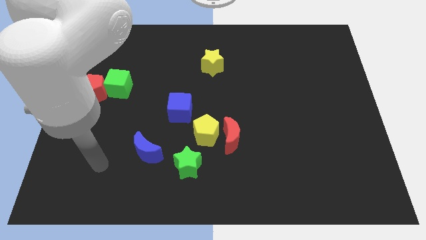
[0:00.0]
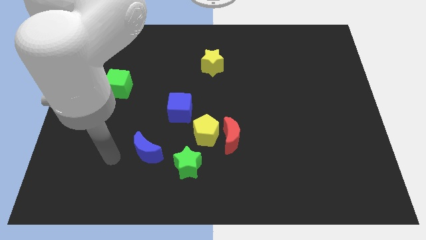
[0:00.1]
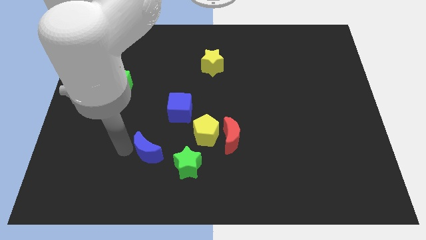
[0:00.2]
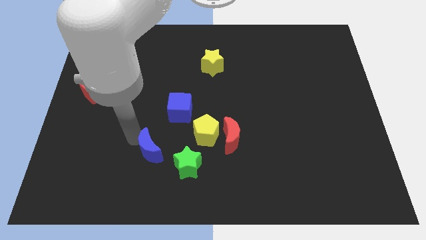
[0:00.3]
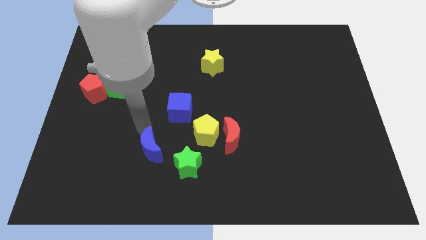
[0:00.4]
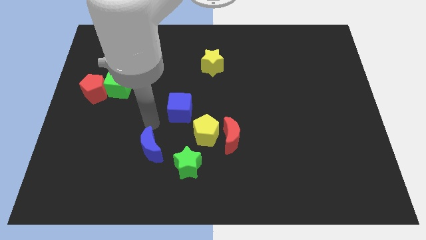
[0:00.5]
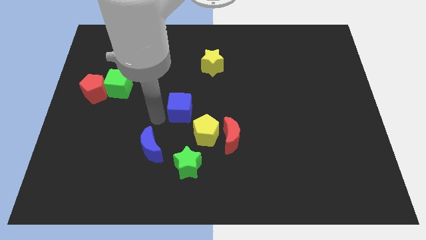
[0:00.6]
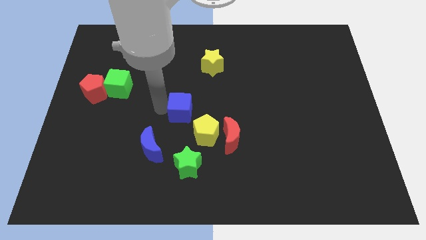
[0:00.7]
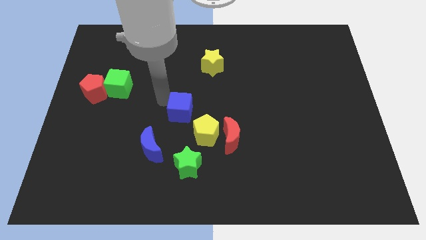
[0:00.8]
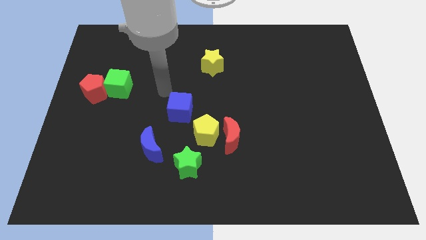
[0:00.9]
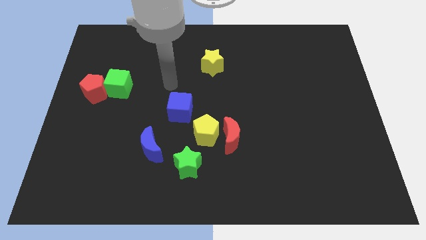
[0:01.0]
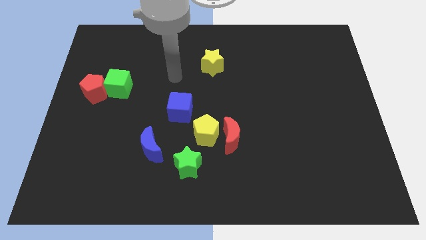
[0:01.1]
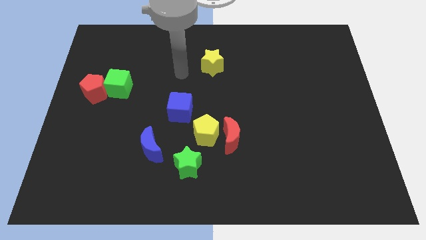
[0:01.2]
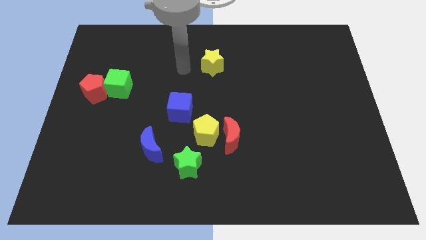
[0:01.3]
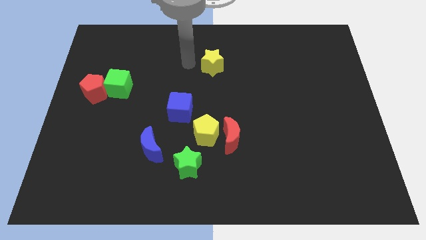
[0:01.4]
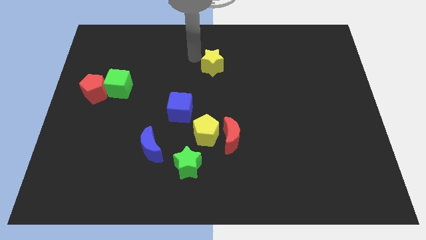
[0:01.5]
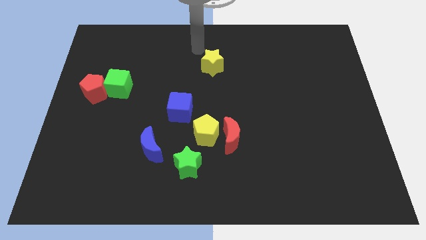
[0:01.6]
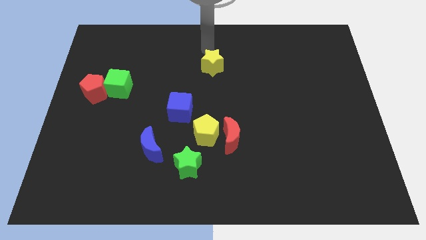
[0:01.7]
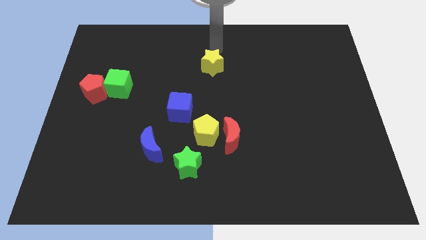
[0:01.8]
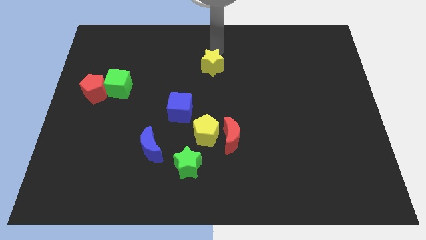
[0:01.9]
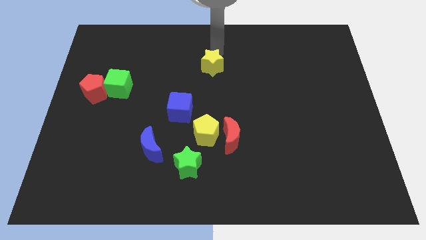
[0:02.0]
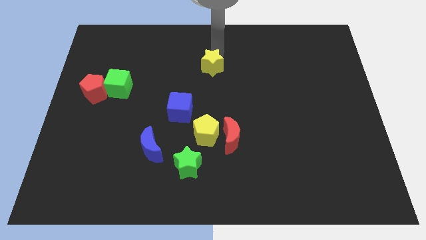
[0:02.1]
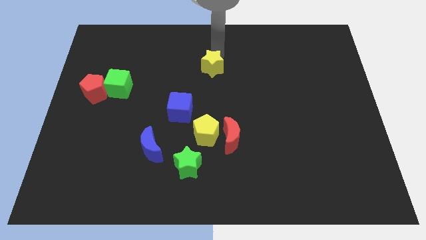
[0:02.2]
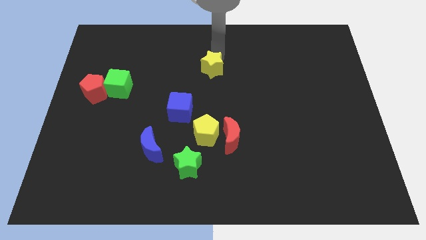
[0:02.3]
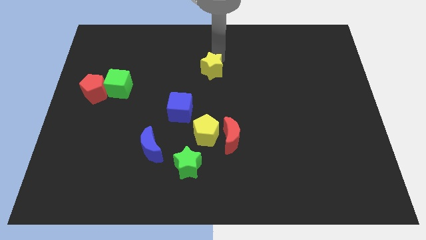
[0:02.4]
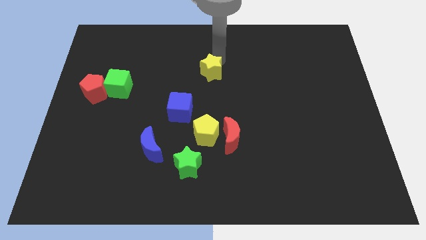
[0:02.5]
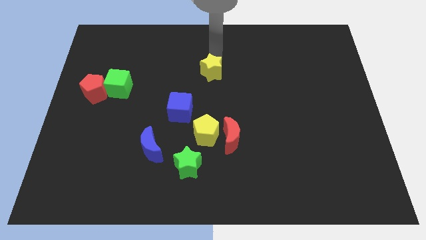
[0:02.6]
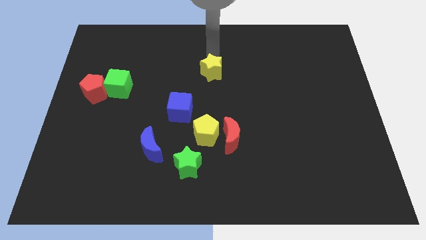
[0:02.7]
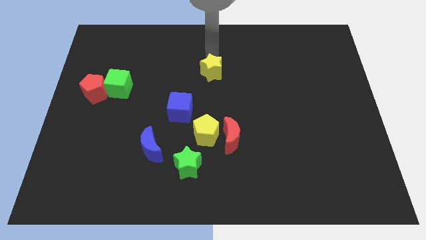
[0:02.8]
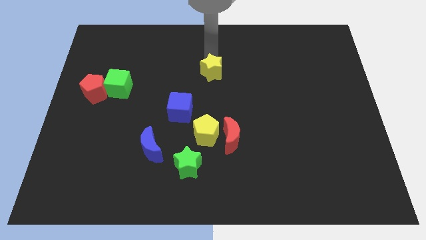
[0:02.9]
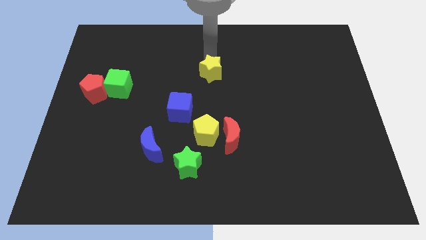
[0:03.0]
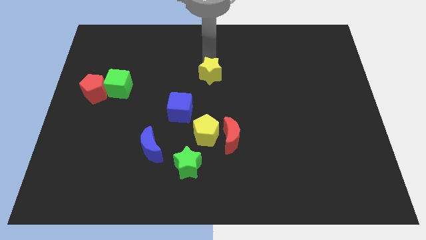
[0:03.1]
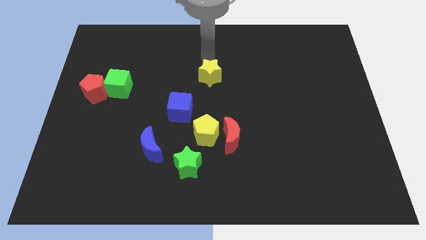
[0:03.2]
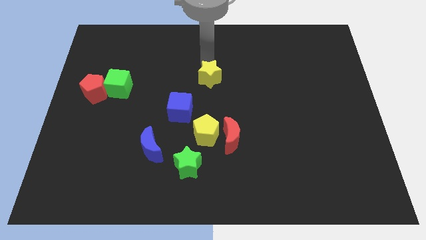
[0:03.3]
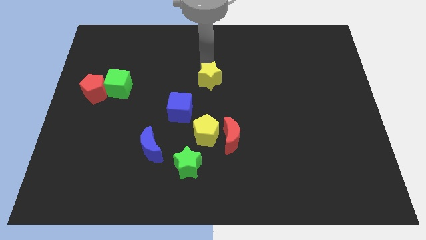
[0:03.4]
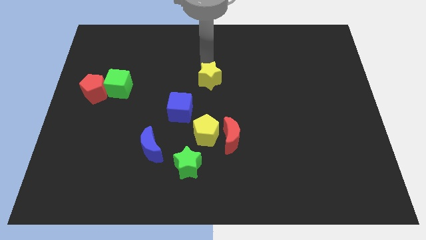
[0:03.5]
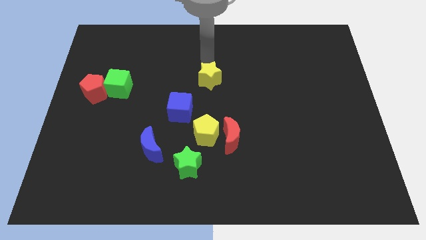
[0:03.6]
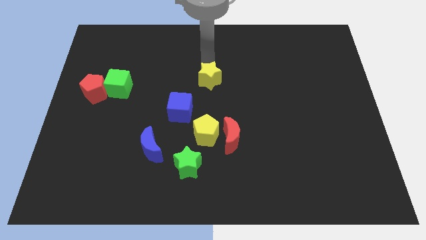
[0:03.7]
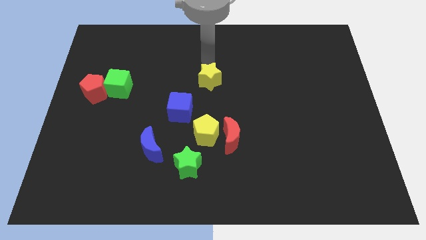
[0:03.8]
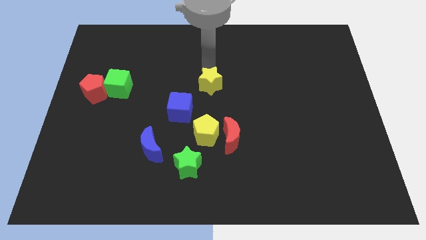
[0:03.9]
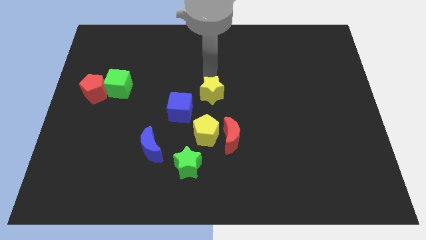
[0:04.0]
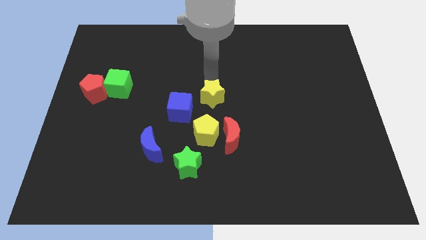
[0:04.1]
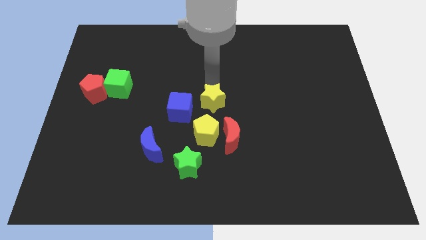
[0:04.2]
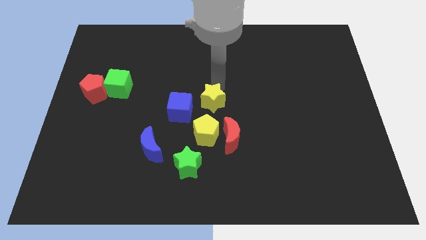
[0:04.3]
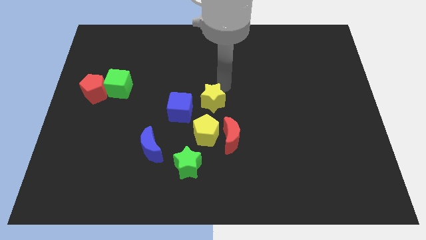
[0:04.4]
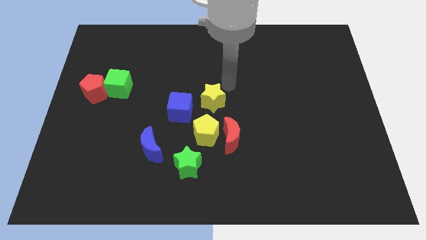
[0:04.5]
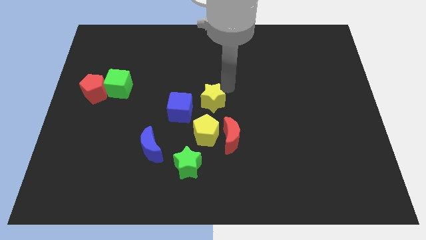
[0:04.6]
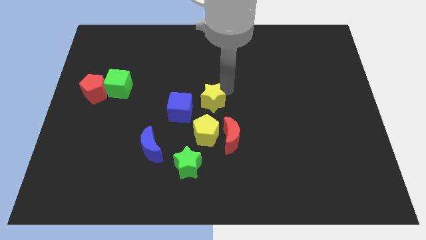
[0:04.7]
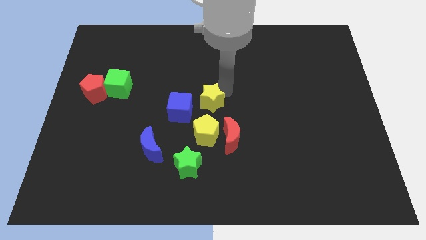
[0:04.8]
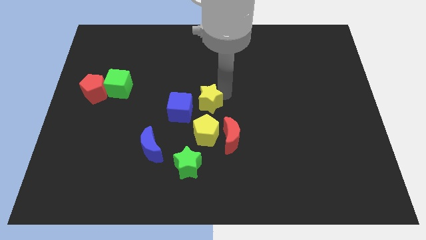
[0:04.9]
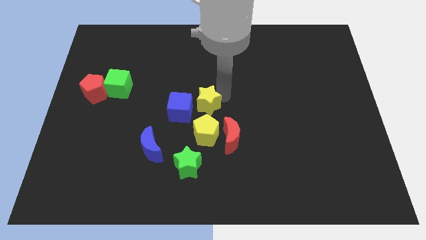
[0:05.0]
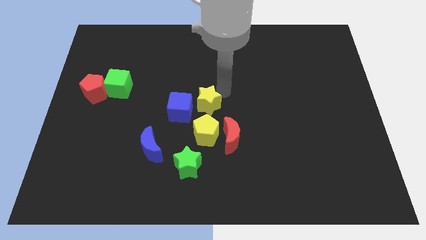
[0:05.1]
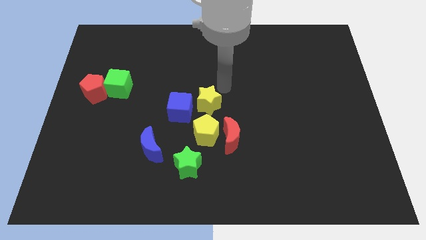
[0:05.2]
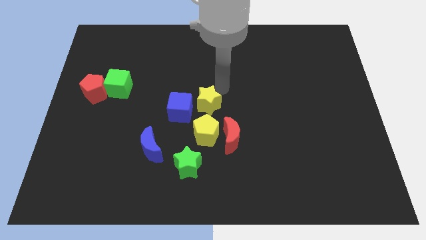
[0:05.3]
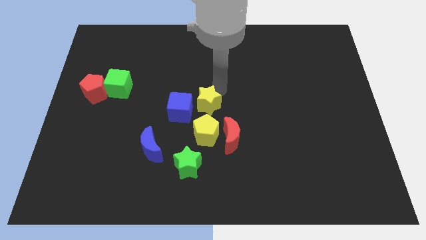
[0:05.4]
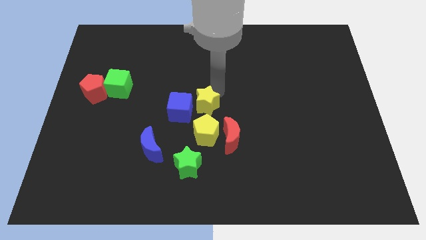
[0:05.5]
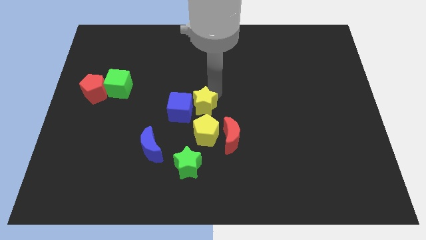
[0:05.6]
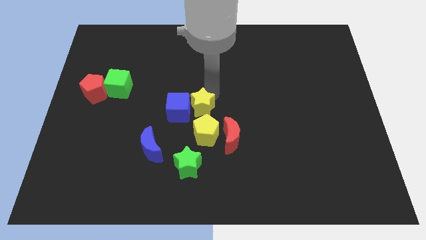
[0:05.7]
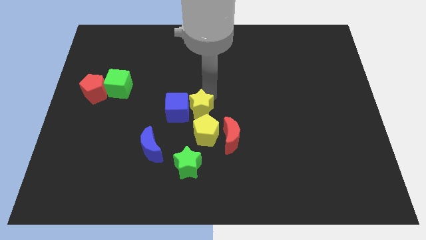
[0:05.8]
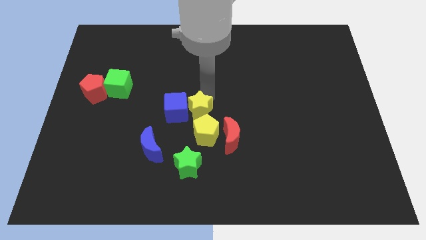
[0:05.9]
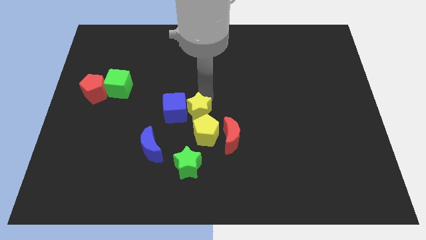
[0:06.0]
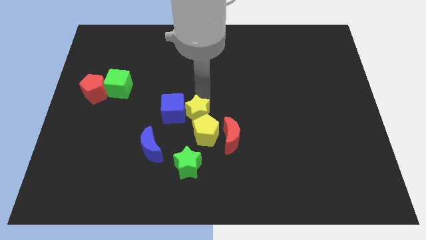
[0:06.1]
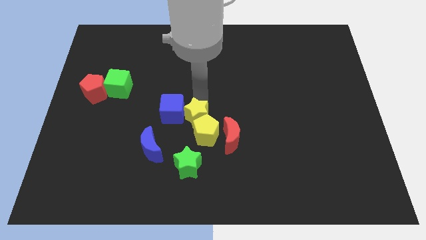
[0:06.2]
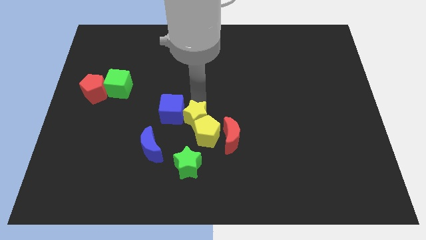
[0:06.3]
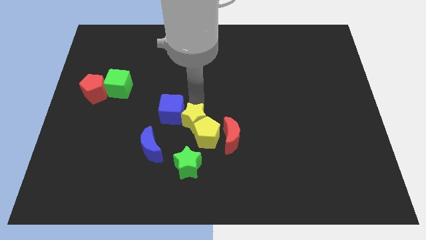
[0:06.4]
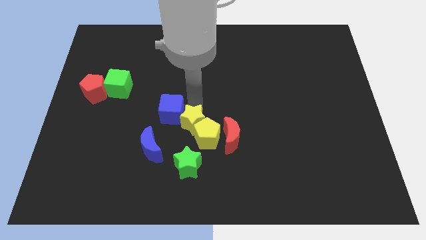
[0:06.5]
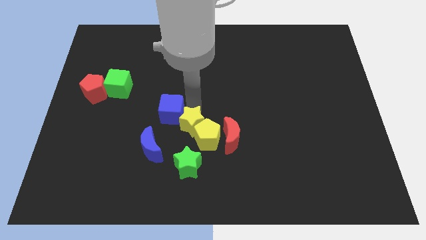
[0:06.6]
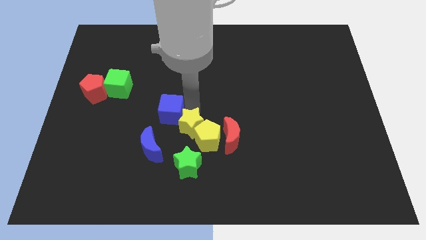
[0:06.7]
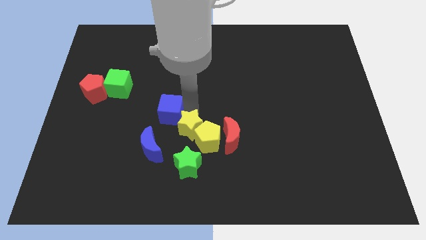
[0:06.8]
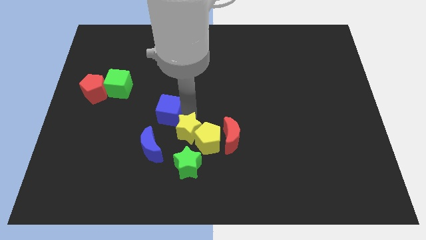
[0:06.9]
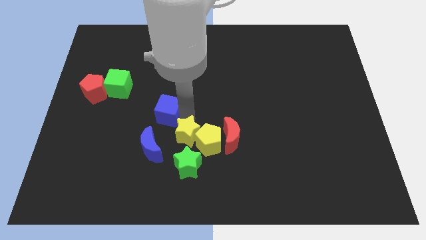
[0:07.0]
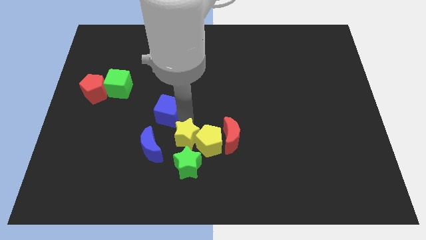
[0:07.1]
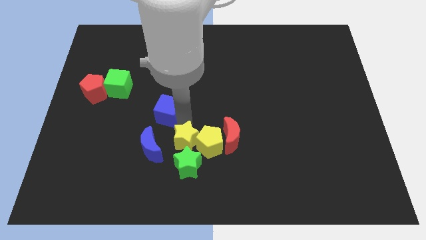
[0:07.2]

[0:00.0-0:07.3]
slide the yellow star close to the green star

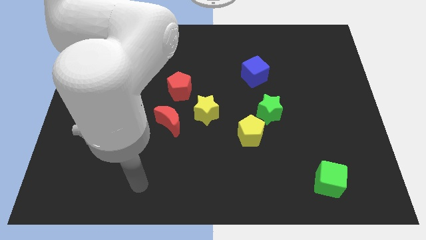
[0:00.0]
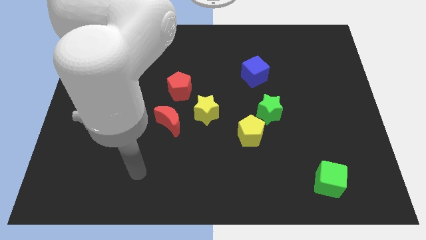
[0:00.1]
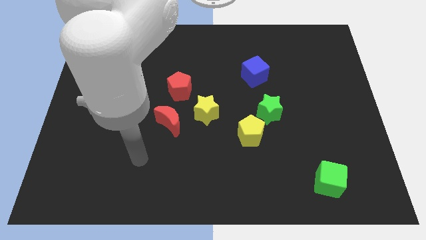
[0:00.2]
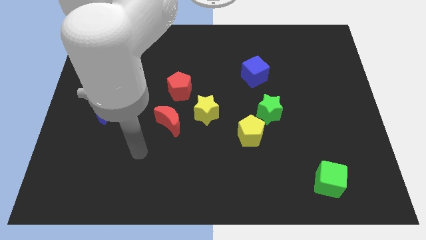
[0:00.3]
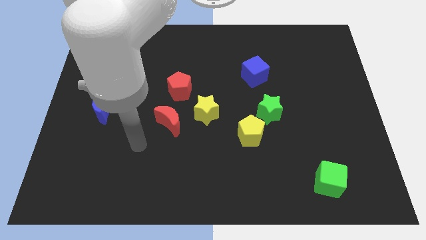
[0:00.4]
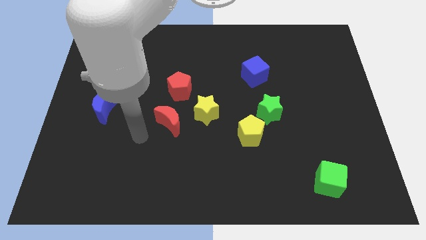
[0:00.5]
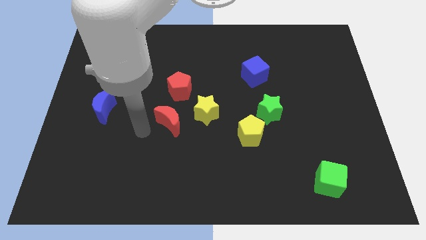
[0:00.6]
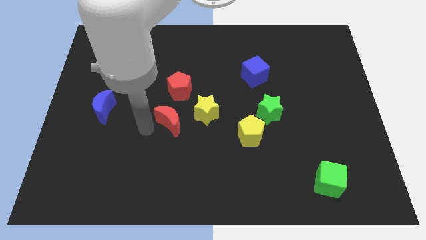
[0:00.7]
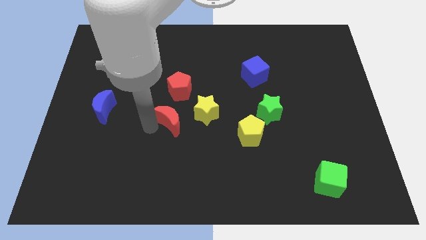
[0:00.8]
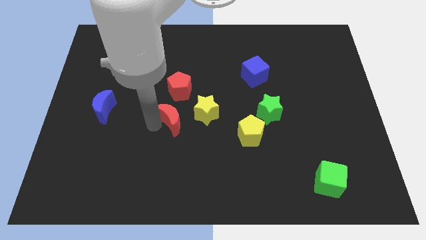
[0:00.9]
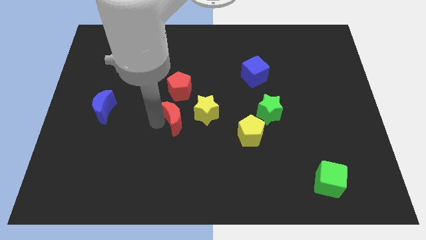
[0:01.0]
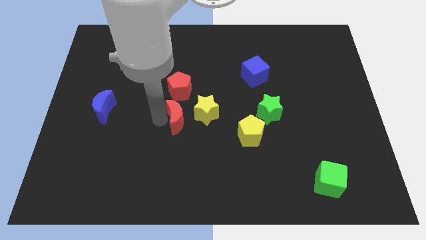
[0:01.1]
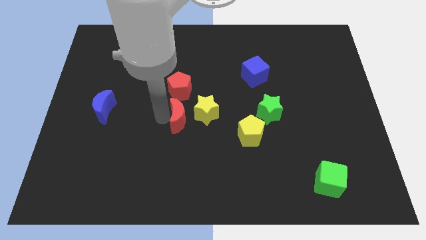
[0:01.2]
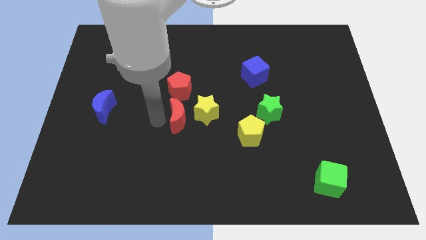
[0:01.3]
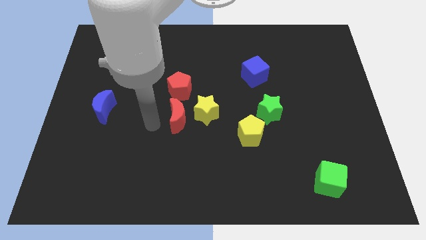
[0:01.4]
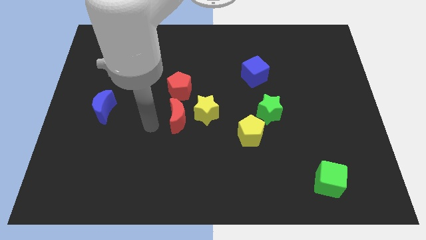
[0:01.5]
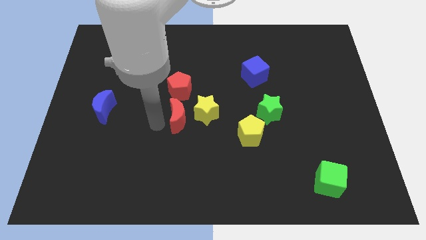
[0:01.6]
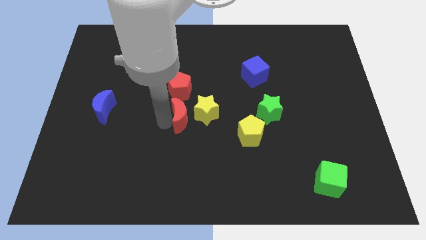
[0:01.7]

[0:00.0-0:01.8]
slide the red moon close to the yellow star
